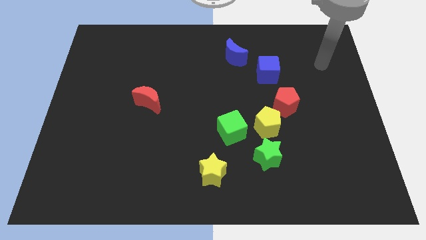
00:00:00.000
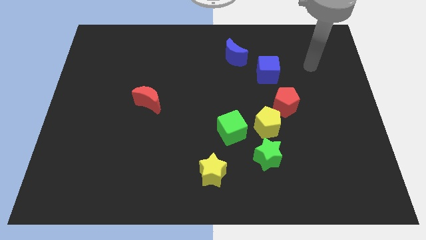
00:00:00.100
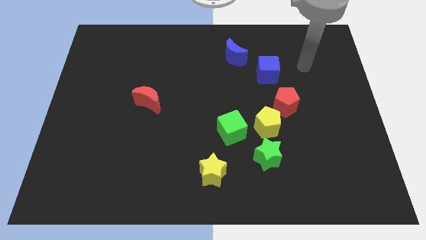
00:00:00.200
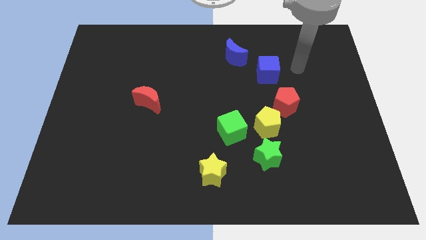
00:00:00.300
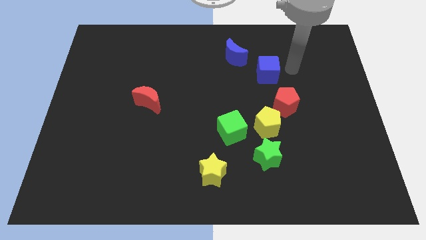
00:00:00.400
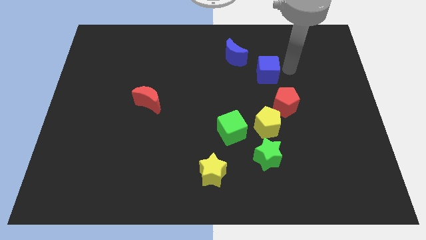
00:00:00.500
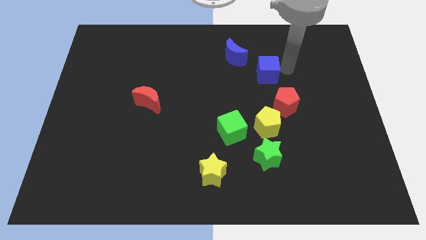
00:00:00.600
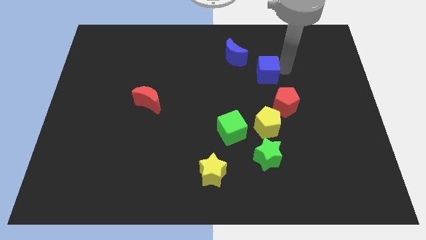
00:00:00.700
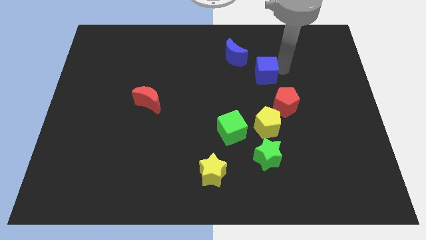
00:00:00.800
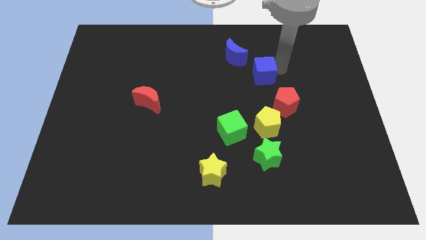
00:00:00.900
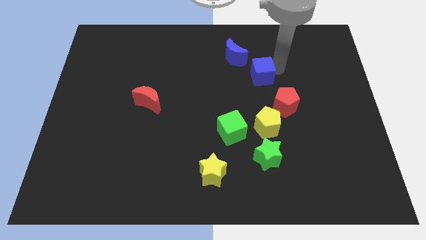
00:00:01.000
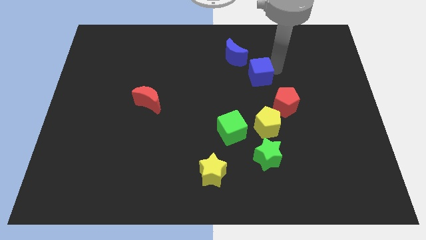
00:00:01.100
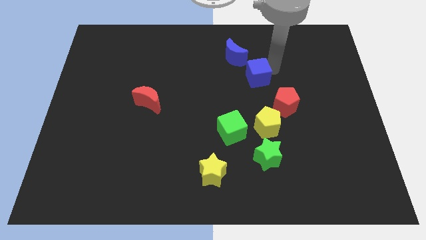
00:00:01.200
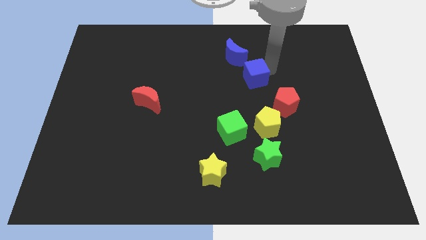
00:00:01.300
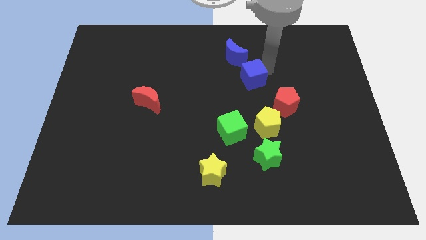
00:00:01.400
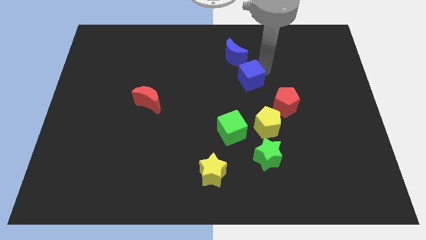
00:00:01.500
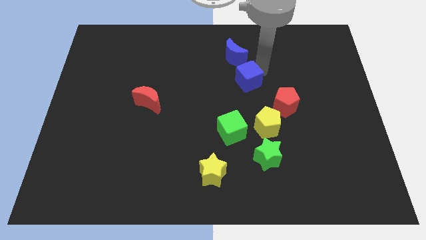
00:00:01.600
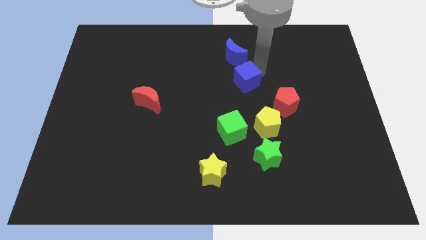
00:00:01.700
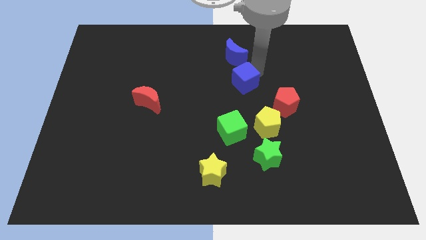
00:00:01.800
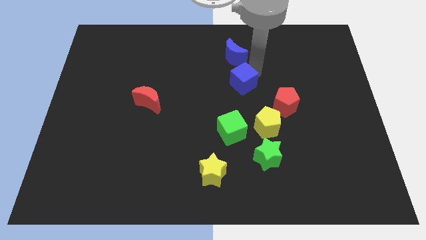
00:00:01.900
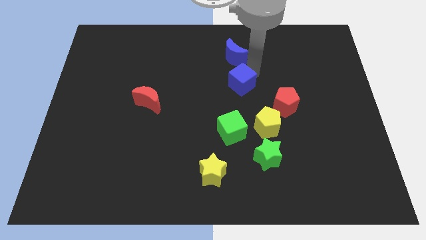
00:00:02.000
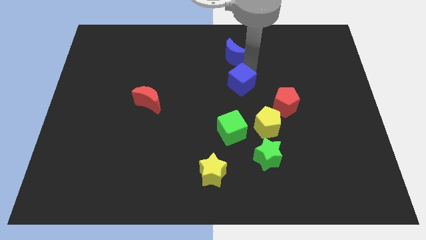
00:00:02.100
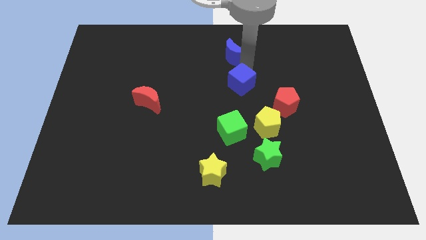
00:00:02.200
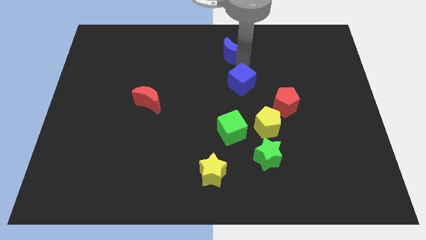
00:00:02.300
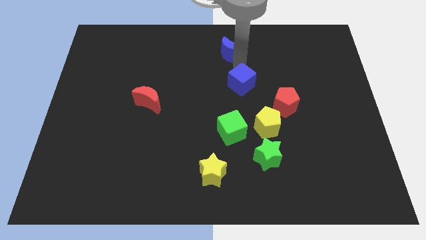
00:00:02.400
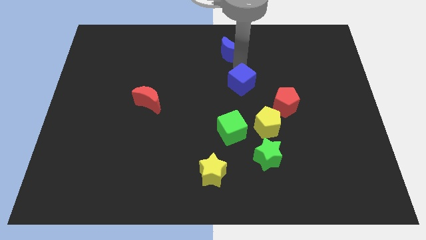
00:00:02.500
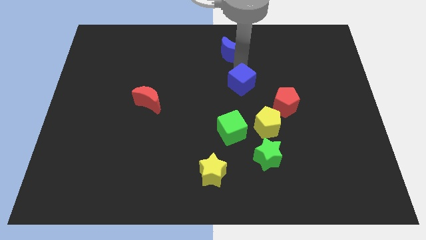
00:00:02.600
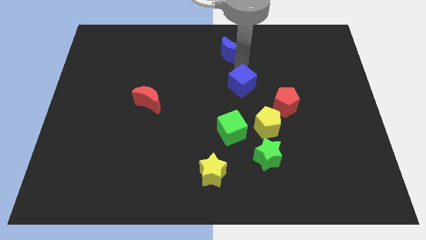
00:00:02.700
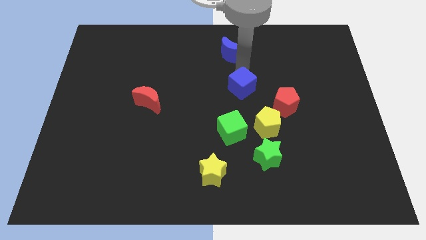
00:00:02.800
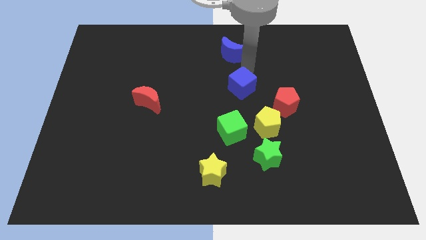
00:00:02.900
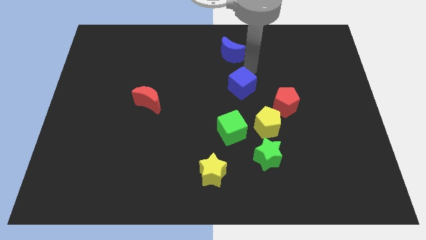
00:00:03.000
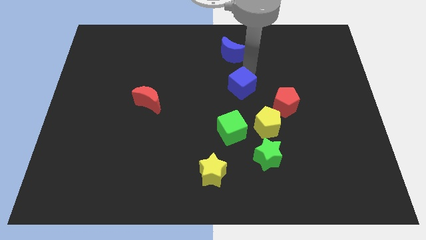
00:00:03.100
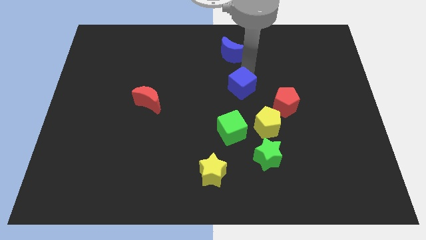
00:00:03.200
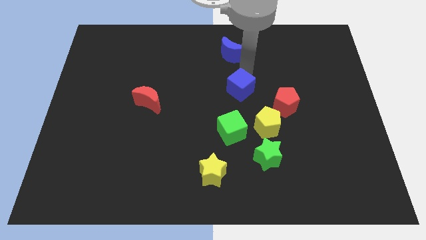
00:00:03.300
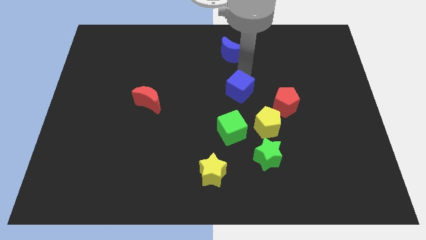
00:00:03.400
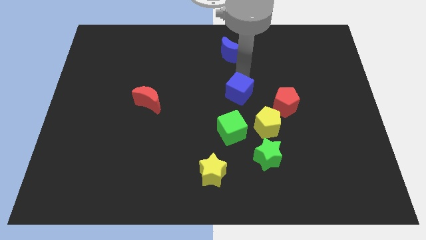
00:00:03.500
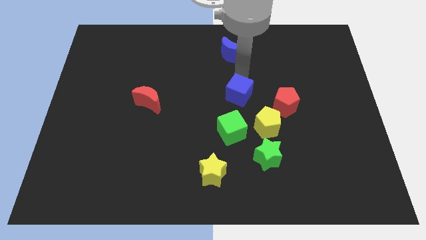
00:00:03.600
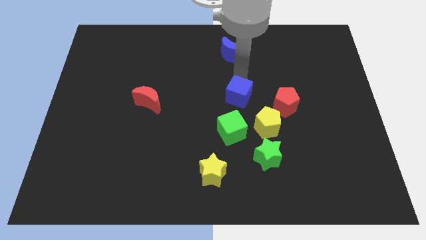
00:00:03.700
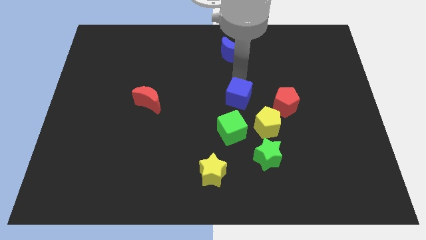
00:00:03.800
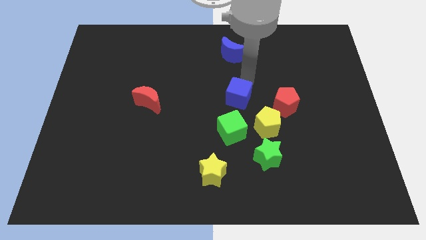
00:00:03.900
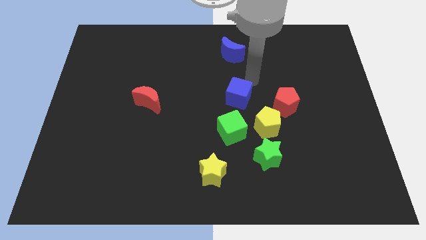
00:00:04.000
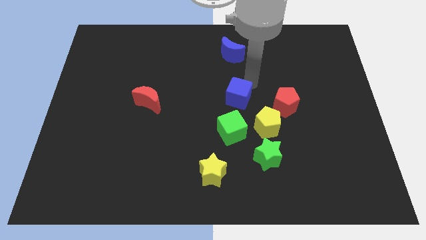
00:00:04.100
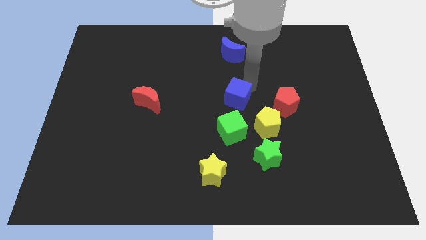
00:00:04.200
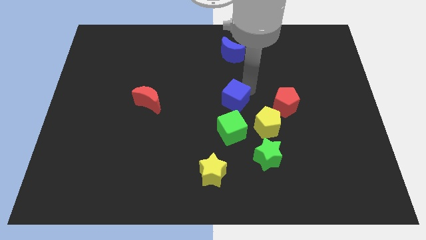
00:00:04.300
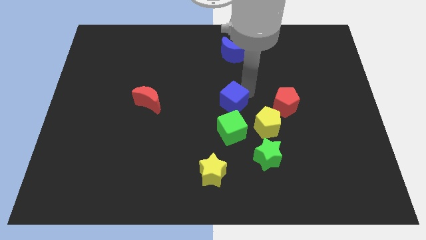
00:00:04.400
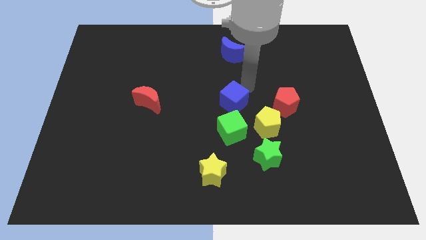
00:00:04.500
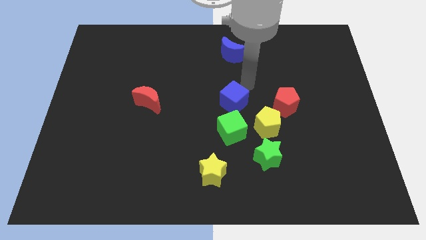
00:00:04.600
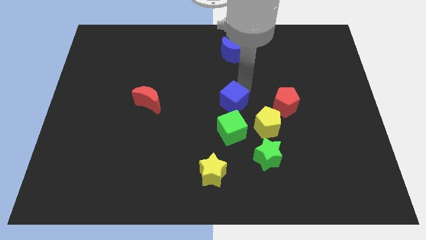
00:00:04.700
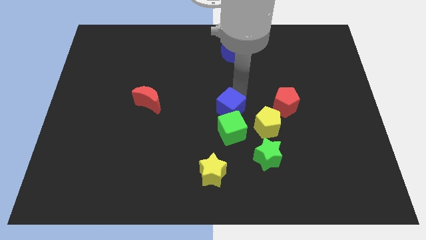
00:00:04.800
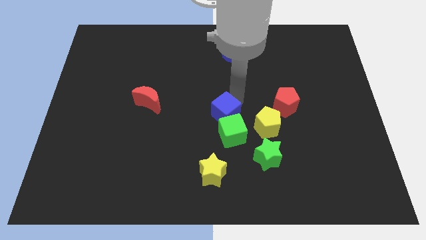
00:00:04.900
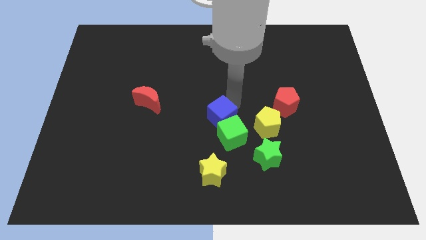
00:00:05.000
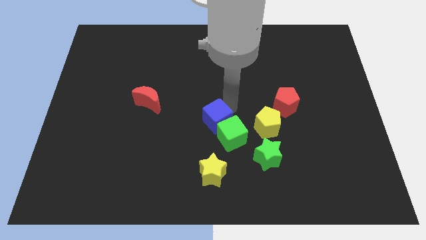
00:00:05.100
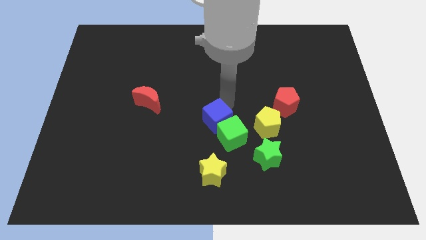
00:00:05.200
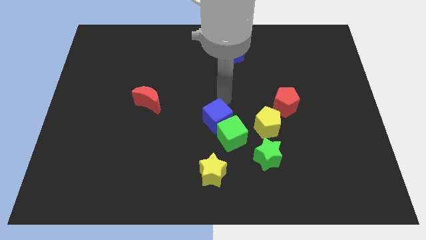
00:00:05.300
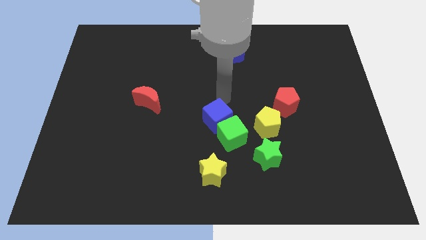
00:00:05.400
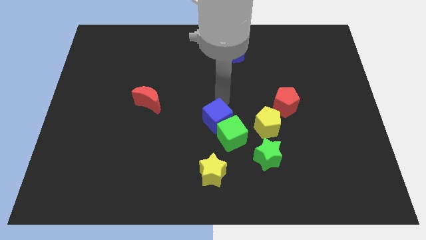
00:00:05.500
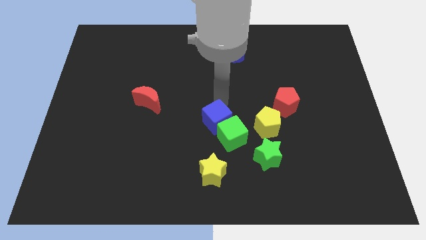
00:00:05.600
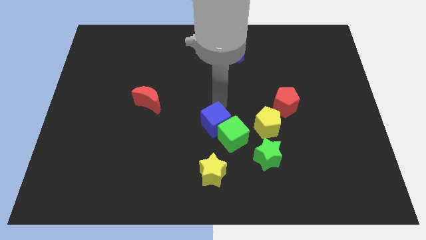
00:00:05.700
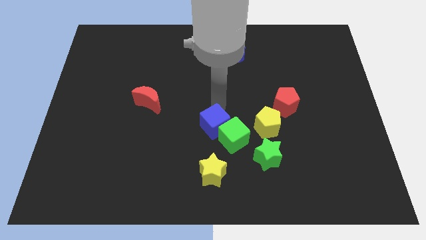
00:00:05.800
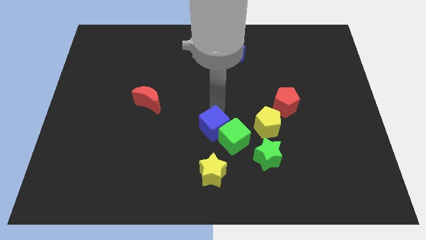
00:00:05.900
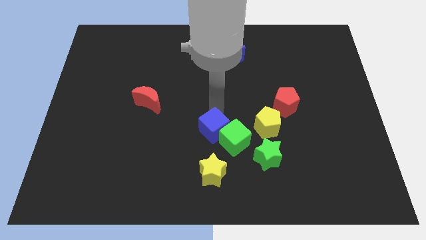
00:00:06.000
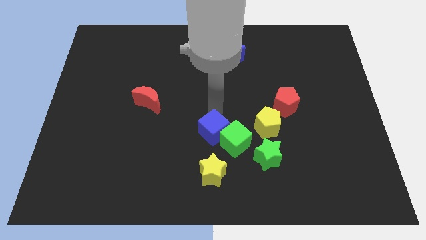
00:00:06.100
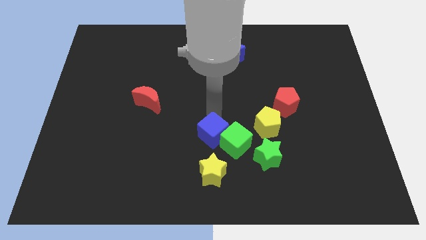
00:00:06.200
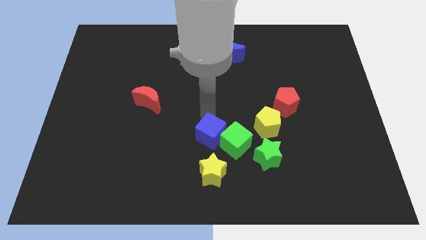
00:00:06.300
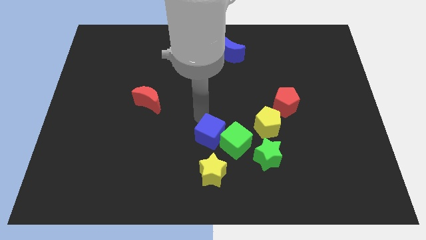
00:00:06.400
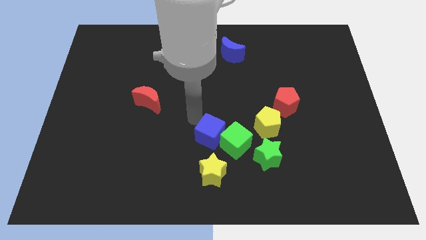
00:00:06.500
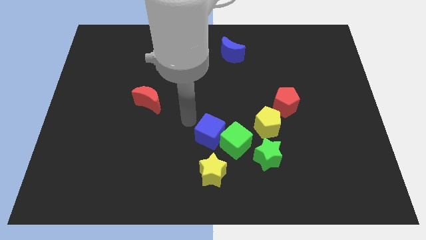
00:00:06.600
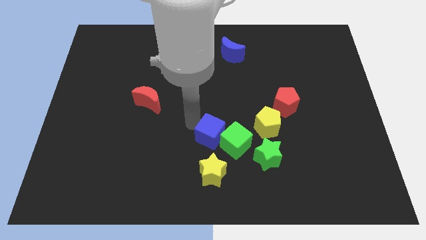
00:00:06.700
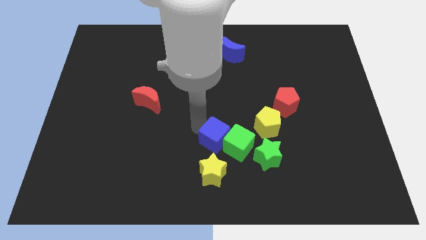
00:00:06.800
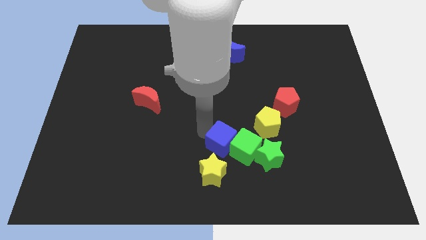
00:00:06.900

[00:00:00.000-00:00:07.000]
move the blue cube to the top right side of the yellow star

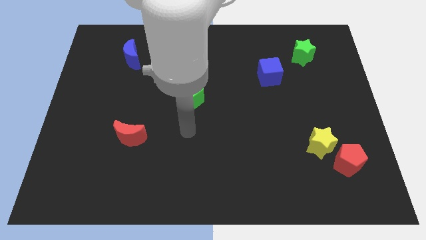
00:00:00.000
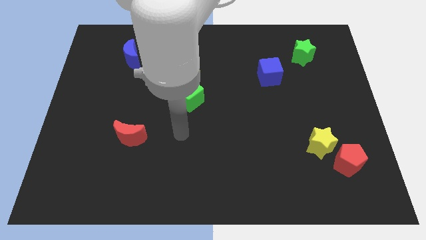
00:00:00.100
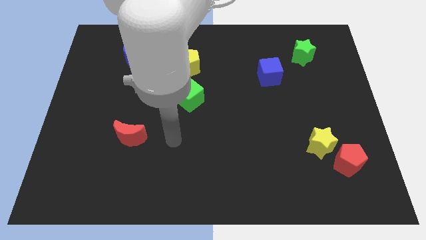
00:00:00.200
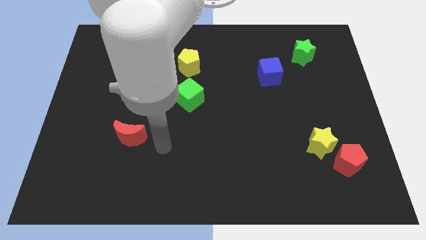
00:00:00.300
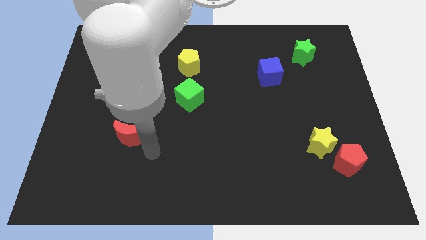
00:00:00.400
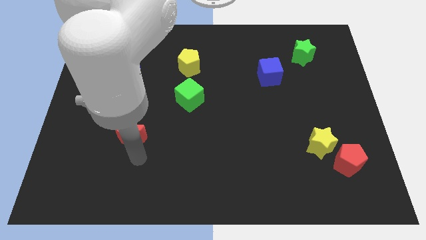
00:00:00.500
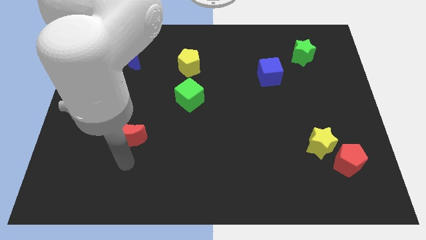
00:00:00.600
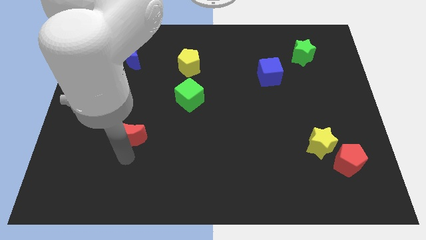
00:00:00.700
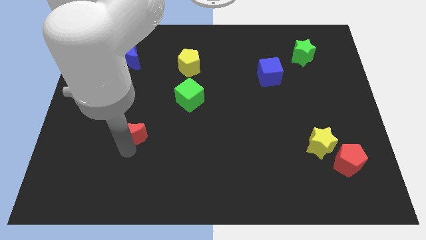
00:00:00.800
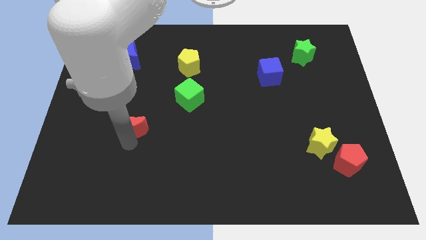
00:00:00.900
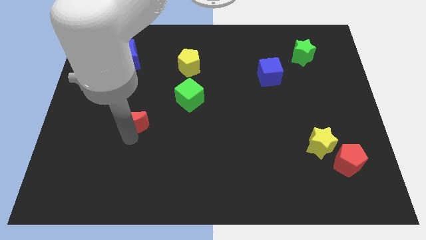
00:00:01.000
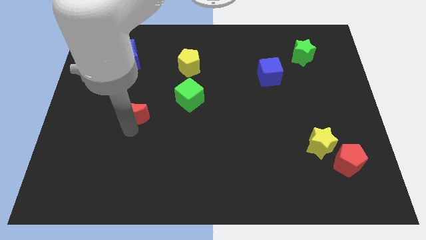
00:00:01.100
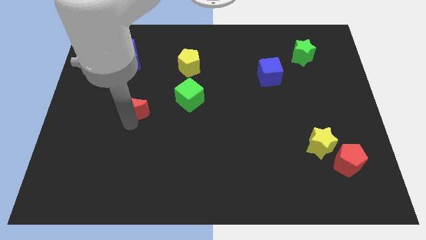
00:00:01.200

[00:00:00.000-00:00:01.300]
slide the red moon left of the green cube
